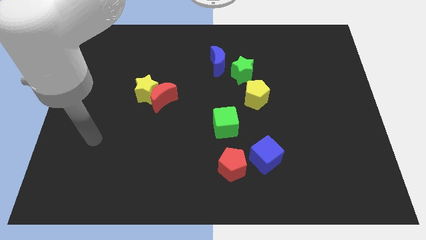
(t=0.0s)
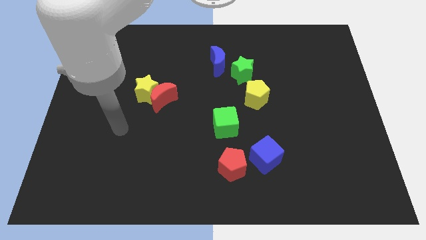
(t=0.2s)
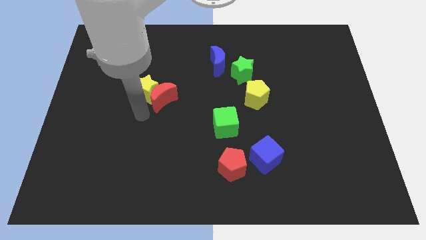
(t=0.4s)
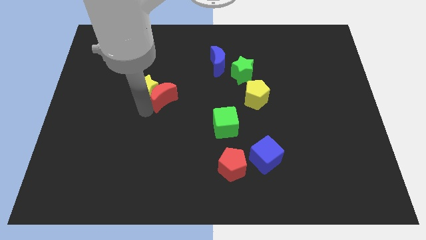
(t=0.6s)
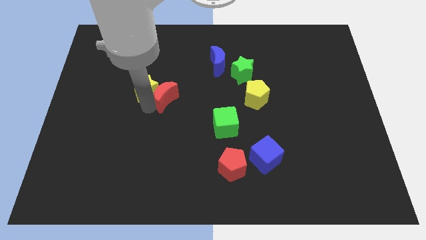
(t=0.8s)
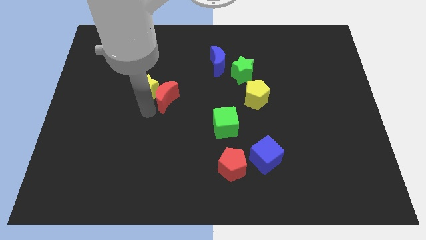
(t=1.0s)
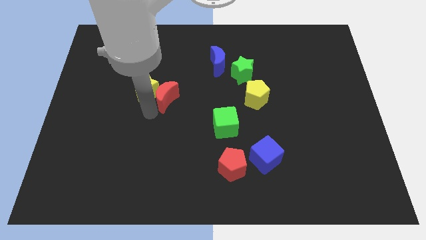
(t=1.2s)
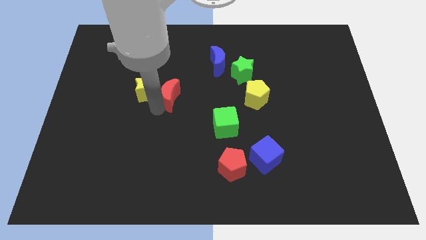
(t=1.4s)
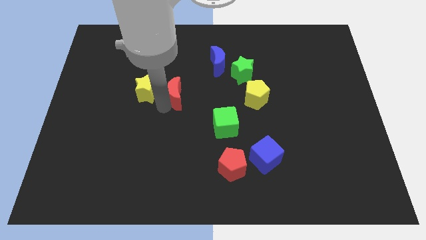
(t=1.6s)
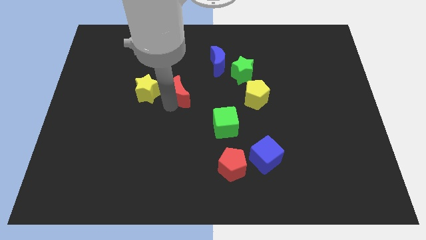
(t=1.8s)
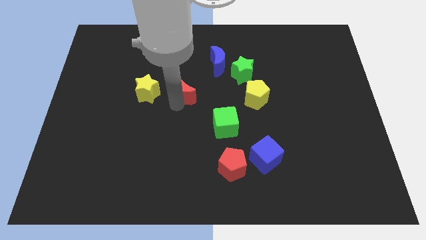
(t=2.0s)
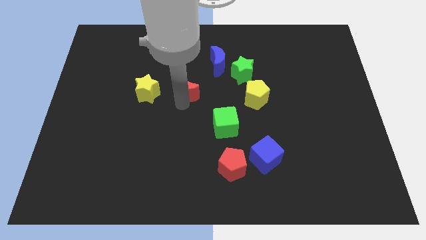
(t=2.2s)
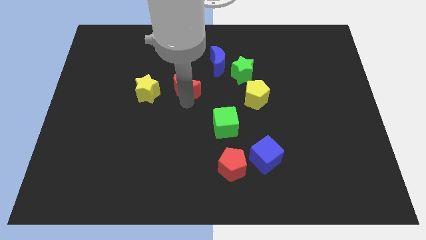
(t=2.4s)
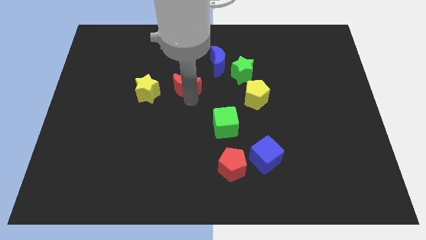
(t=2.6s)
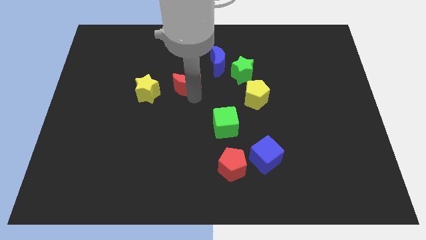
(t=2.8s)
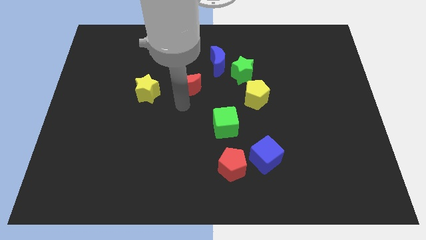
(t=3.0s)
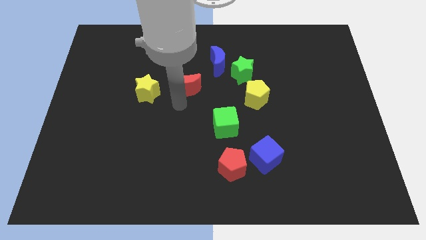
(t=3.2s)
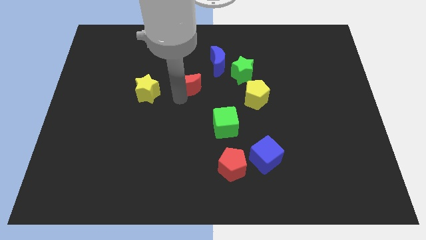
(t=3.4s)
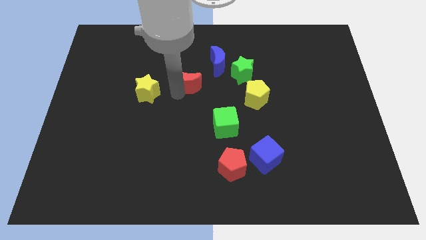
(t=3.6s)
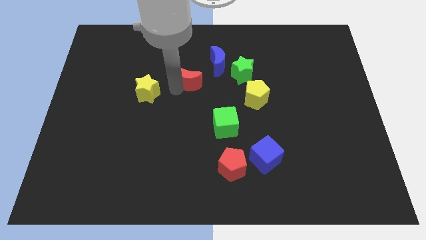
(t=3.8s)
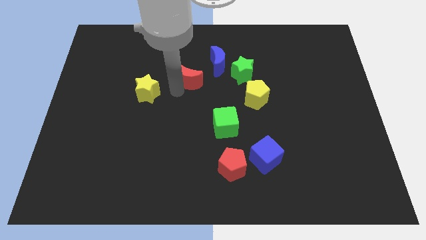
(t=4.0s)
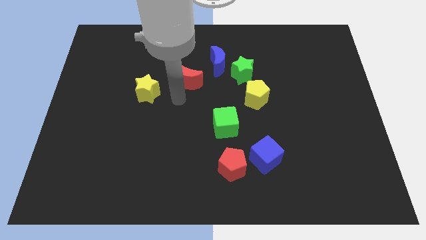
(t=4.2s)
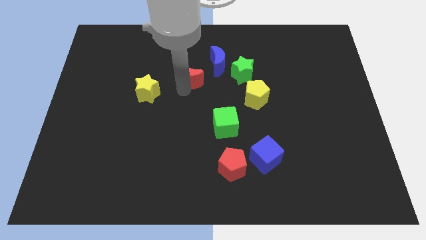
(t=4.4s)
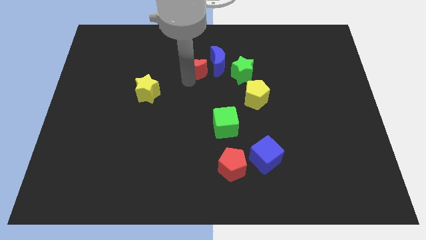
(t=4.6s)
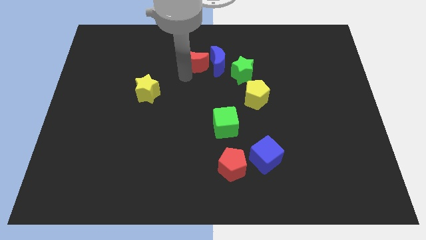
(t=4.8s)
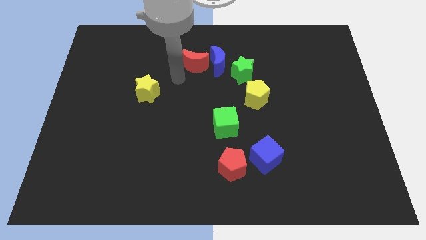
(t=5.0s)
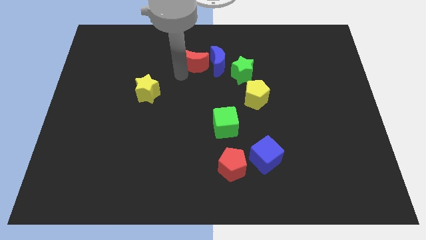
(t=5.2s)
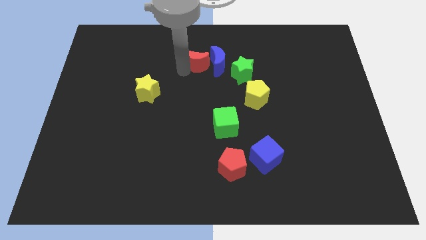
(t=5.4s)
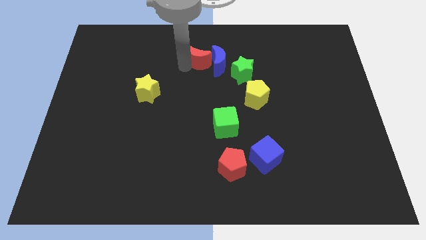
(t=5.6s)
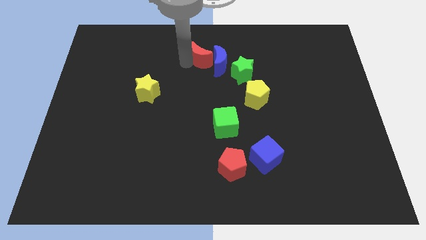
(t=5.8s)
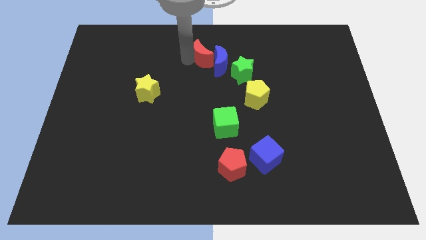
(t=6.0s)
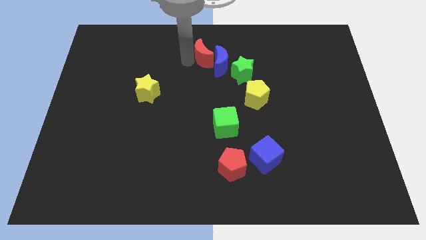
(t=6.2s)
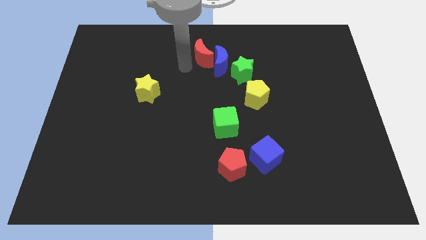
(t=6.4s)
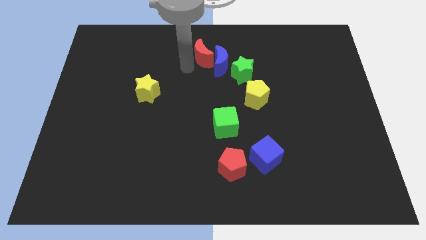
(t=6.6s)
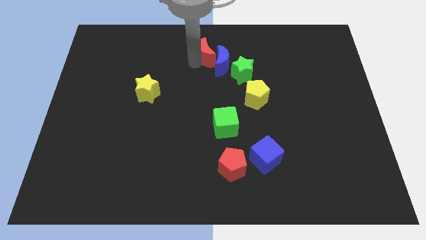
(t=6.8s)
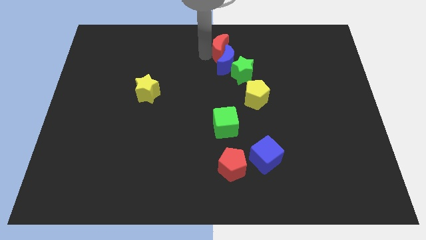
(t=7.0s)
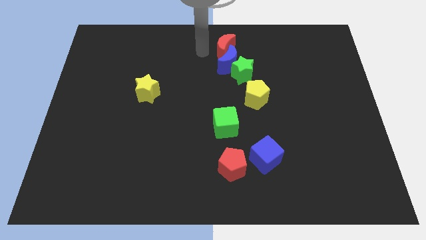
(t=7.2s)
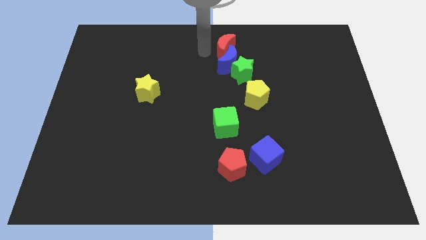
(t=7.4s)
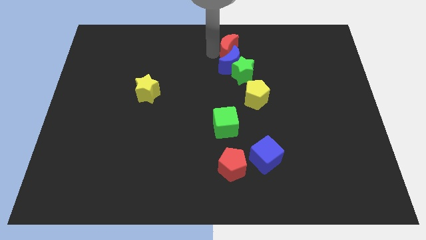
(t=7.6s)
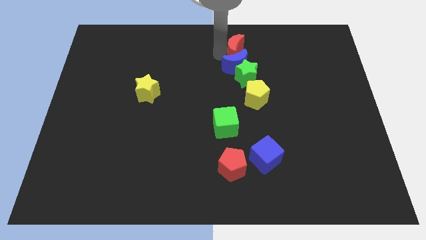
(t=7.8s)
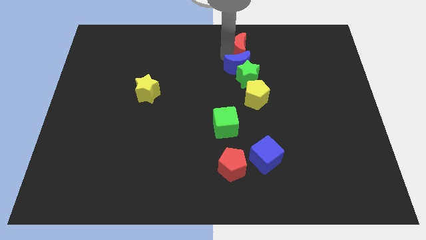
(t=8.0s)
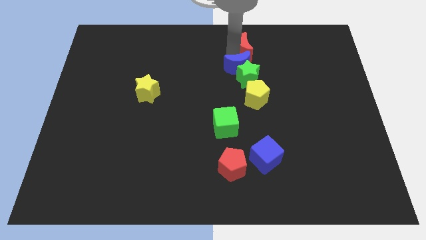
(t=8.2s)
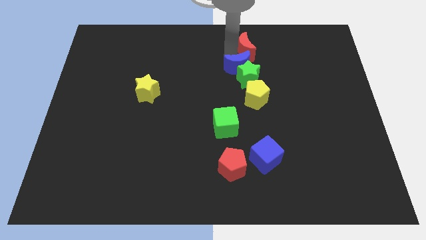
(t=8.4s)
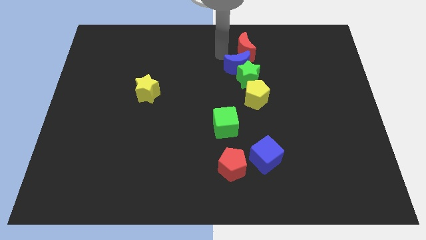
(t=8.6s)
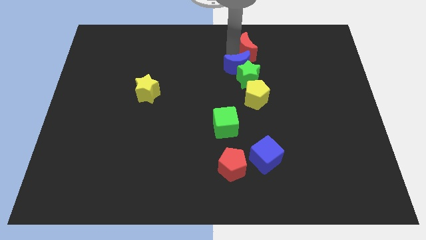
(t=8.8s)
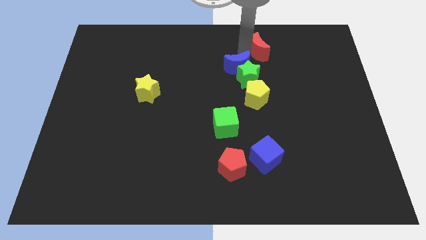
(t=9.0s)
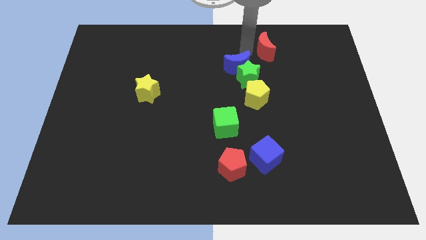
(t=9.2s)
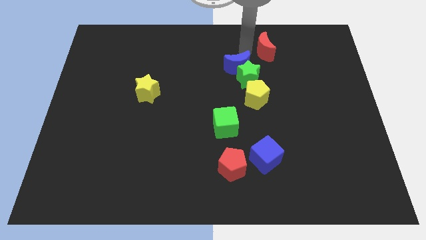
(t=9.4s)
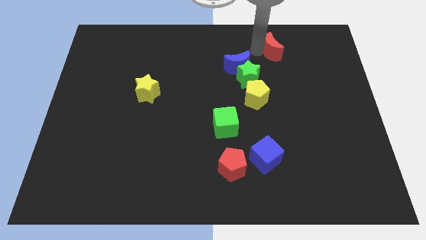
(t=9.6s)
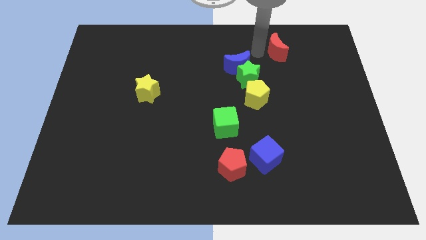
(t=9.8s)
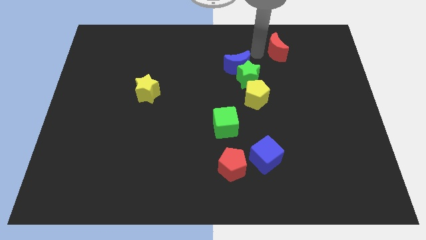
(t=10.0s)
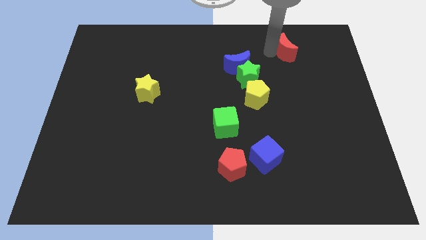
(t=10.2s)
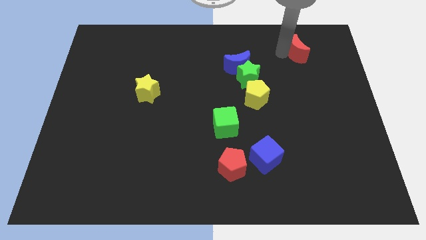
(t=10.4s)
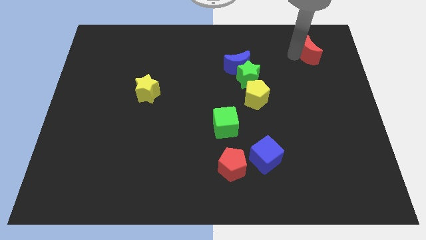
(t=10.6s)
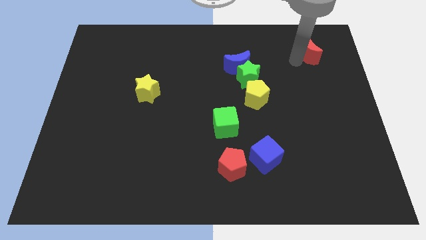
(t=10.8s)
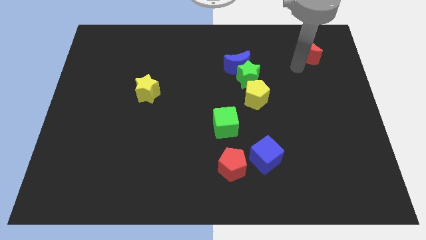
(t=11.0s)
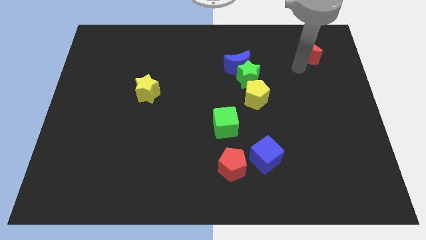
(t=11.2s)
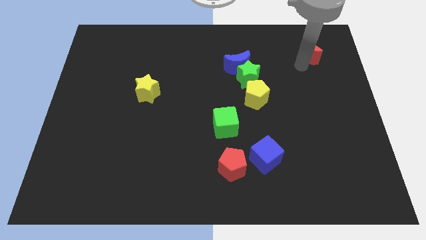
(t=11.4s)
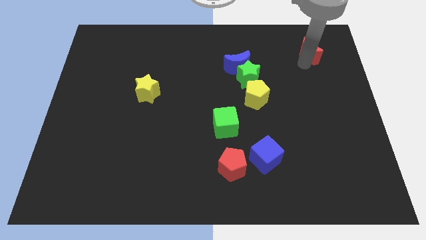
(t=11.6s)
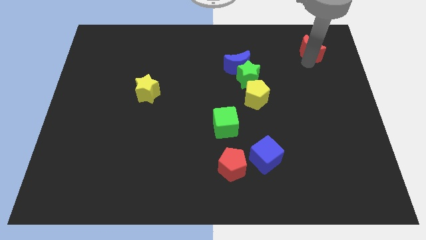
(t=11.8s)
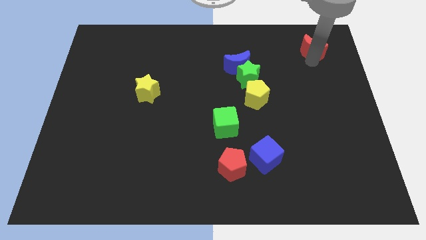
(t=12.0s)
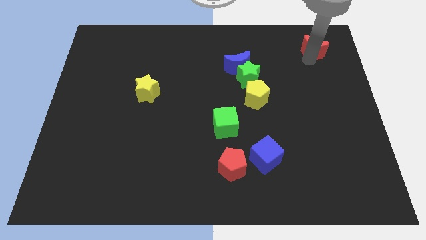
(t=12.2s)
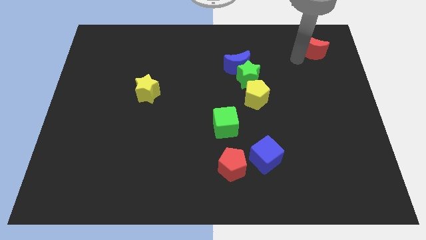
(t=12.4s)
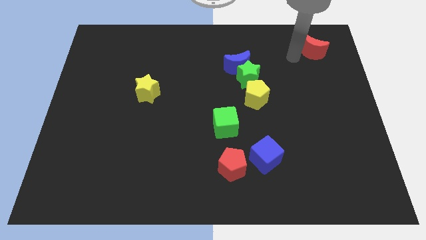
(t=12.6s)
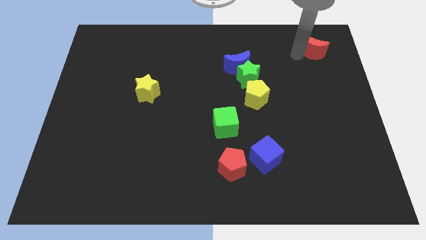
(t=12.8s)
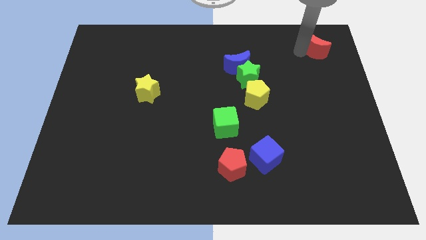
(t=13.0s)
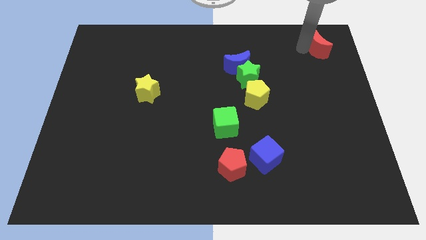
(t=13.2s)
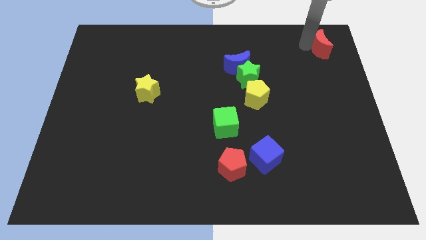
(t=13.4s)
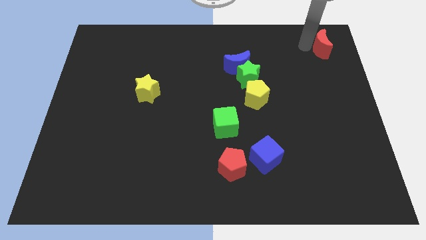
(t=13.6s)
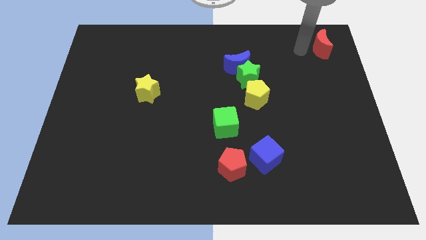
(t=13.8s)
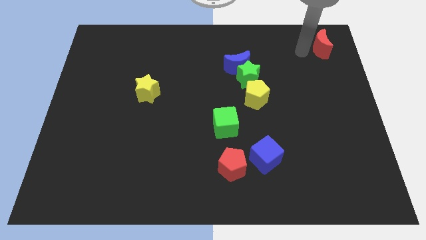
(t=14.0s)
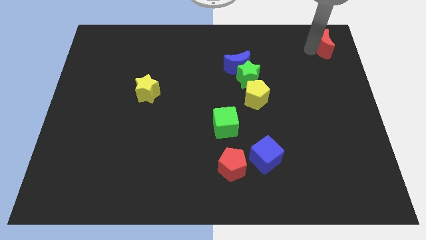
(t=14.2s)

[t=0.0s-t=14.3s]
move the red moon to the upper right corner
